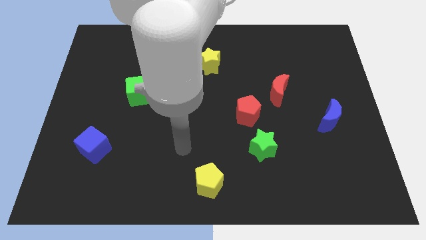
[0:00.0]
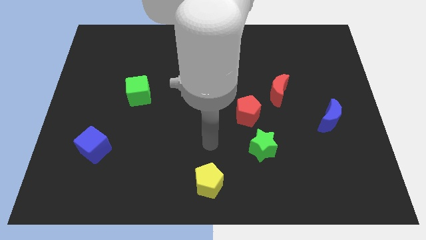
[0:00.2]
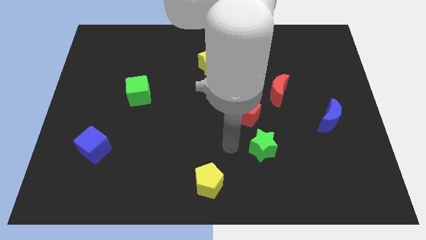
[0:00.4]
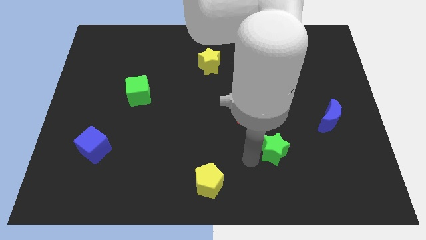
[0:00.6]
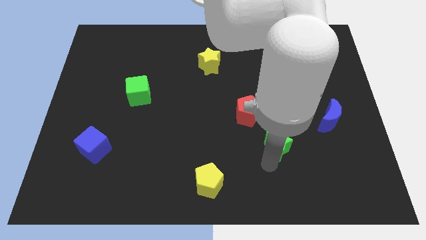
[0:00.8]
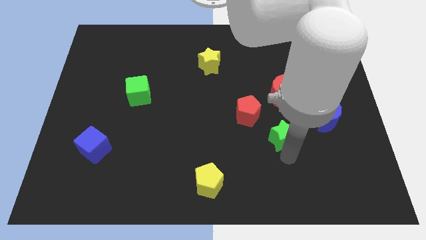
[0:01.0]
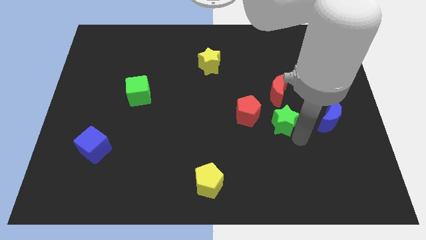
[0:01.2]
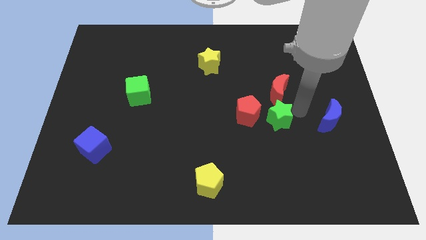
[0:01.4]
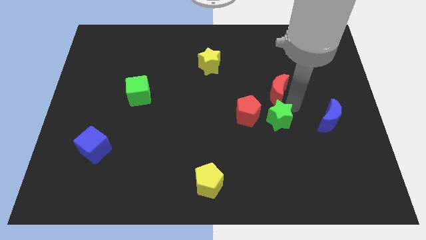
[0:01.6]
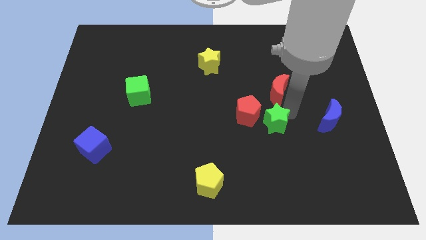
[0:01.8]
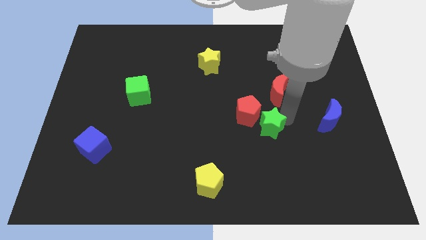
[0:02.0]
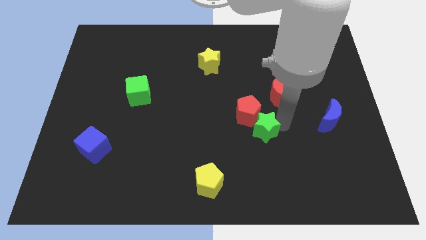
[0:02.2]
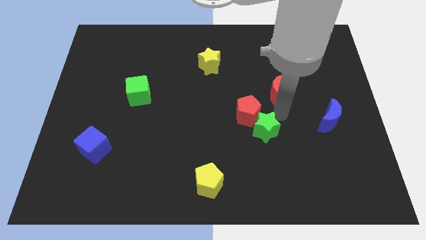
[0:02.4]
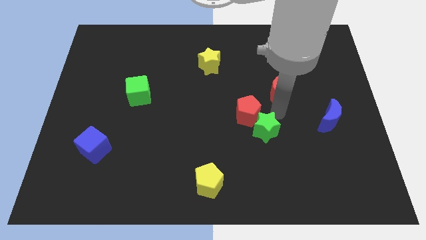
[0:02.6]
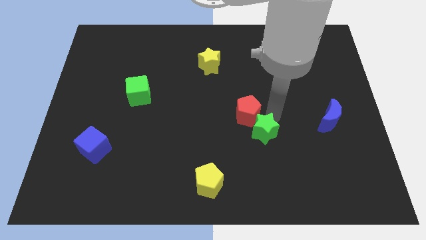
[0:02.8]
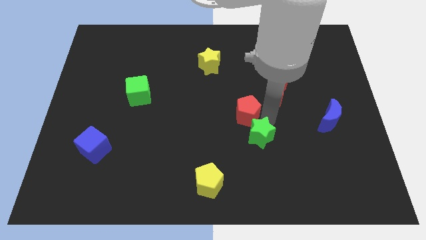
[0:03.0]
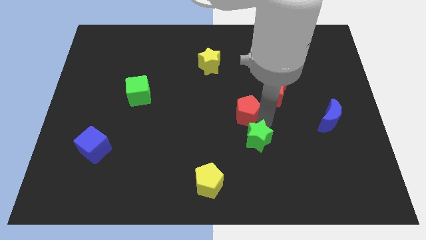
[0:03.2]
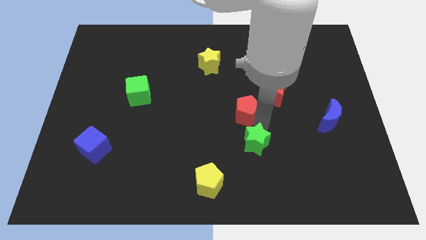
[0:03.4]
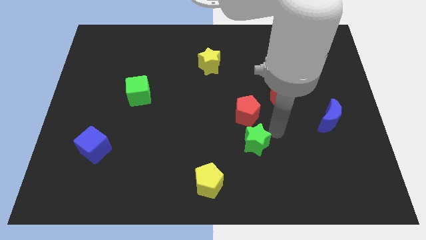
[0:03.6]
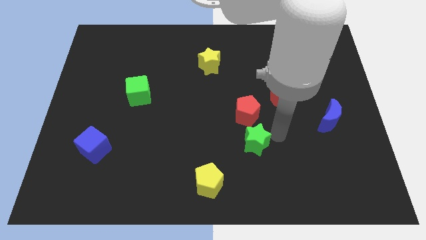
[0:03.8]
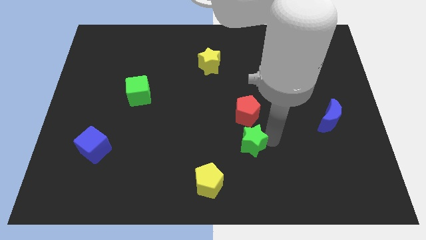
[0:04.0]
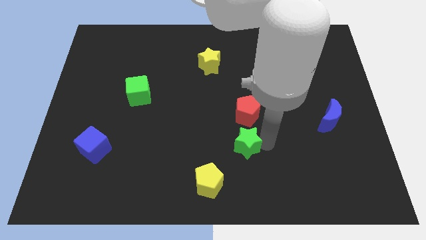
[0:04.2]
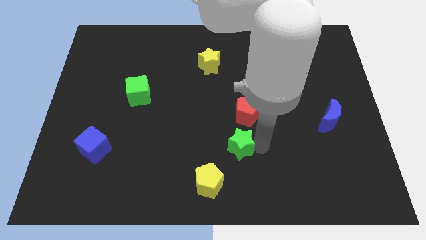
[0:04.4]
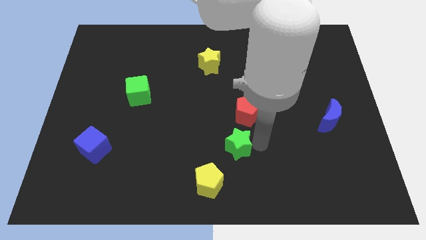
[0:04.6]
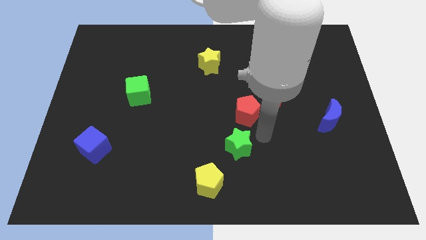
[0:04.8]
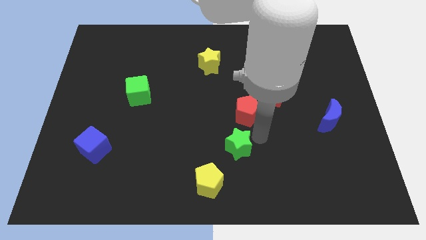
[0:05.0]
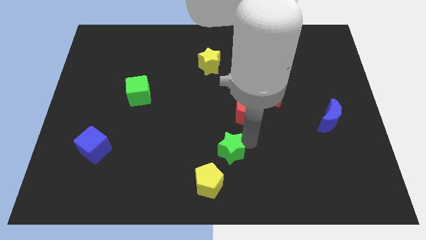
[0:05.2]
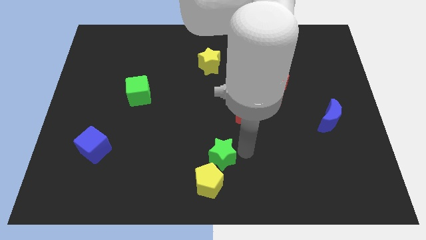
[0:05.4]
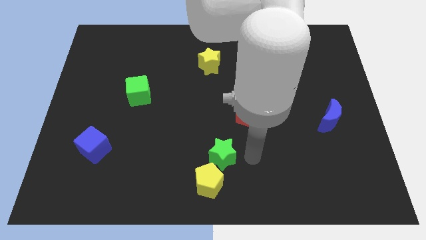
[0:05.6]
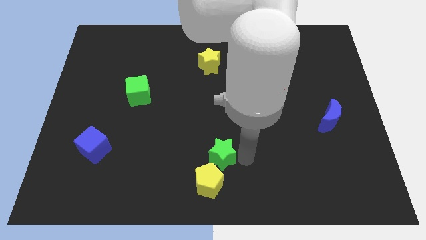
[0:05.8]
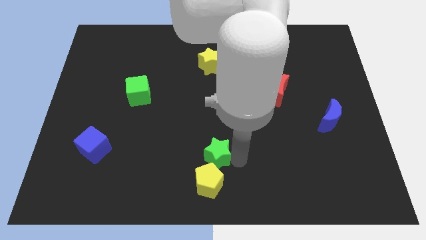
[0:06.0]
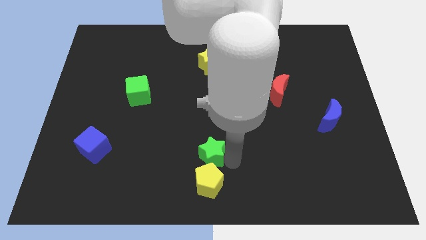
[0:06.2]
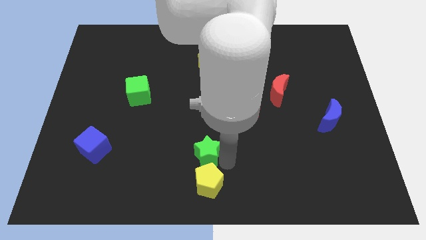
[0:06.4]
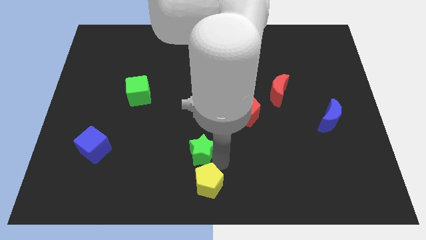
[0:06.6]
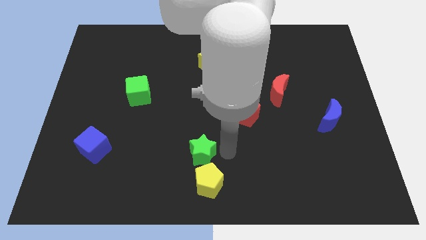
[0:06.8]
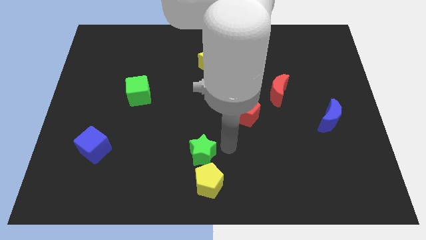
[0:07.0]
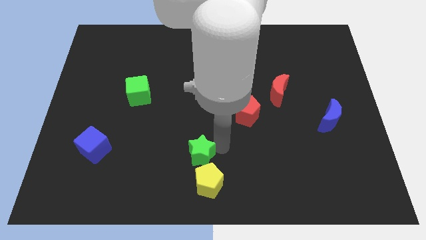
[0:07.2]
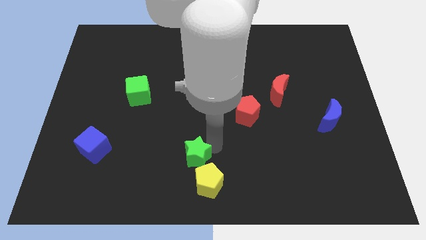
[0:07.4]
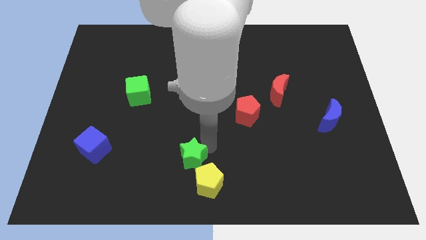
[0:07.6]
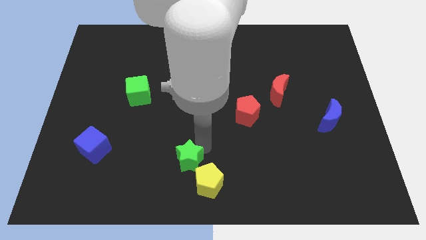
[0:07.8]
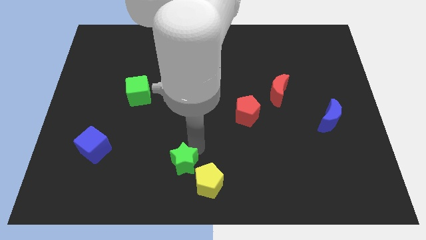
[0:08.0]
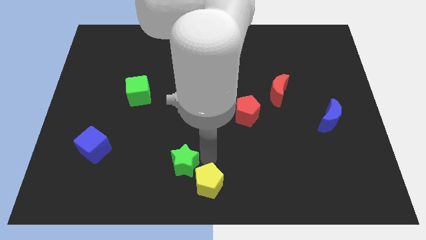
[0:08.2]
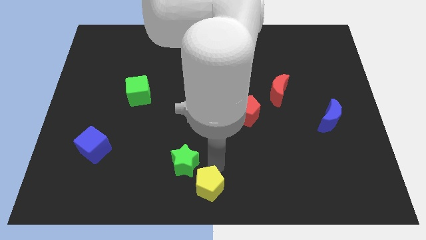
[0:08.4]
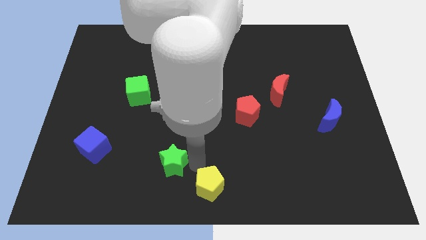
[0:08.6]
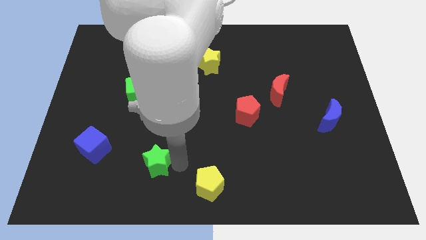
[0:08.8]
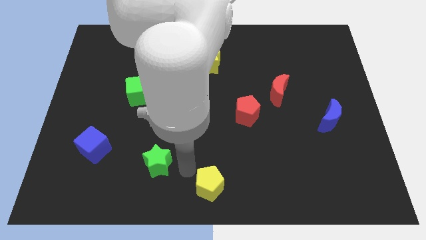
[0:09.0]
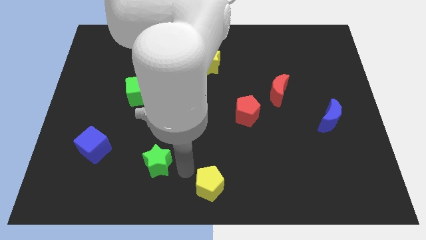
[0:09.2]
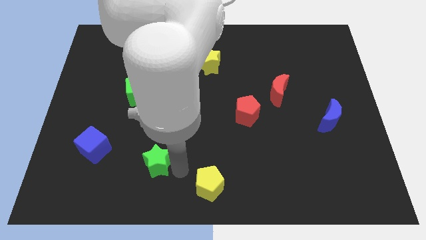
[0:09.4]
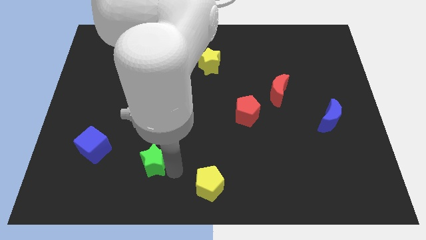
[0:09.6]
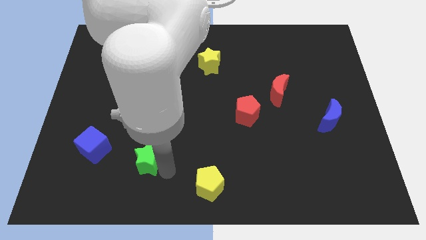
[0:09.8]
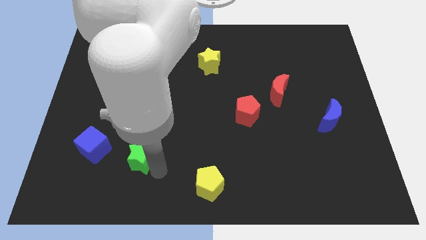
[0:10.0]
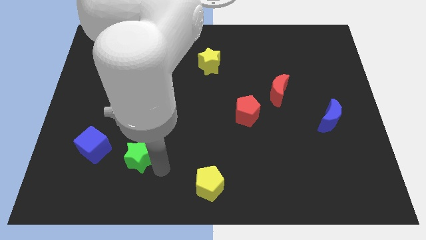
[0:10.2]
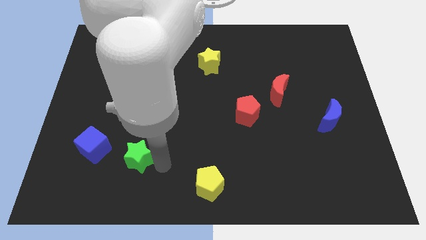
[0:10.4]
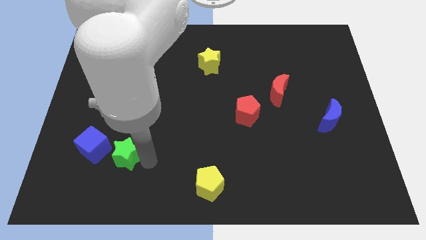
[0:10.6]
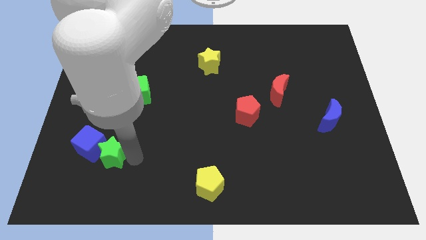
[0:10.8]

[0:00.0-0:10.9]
push the green star towards the blue cube

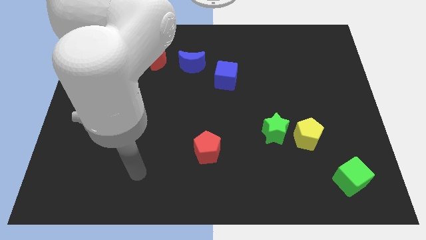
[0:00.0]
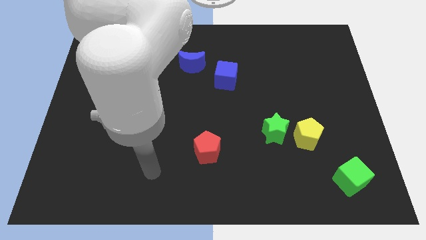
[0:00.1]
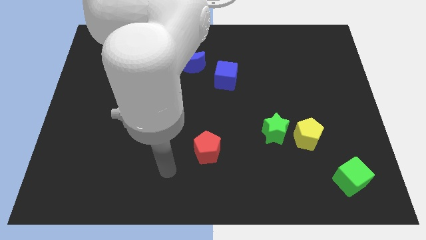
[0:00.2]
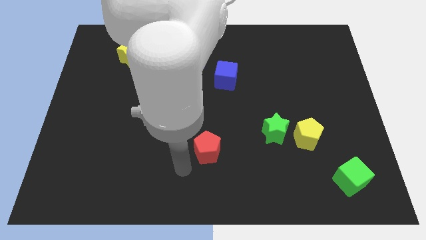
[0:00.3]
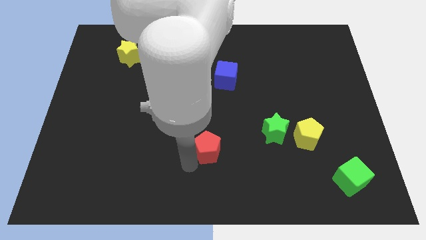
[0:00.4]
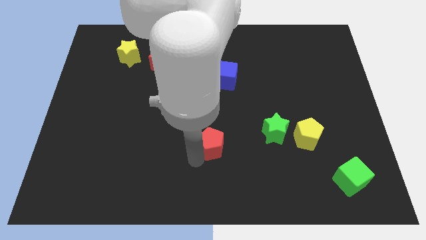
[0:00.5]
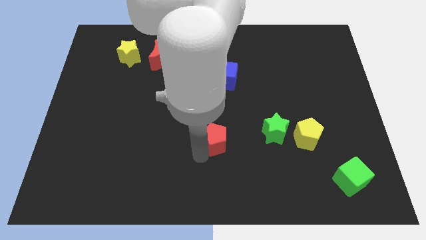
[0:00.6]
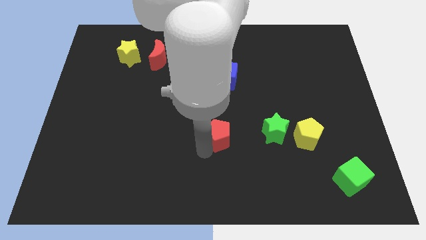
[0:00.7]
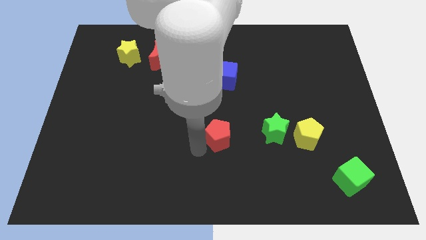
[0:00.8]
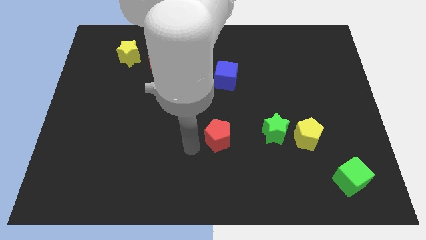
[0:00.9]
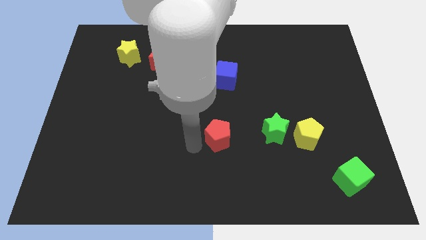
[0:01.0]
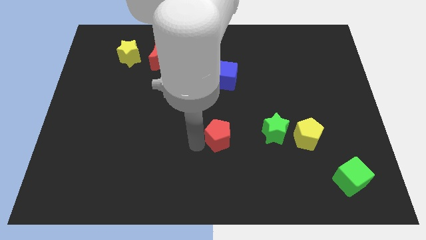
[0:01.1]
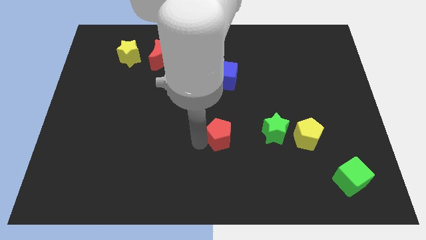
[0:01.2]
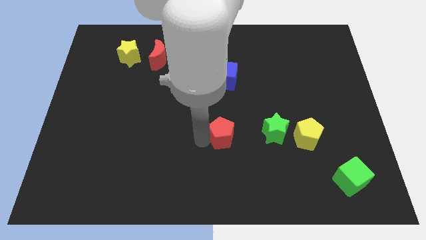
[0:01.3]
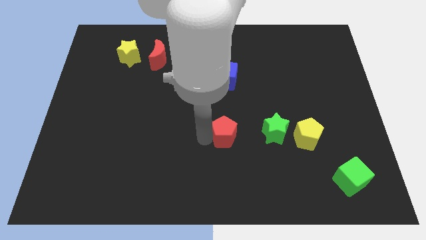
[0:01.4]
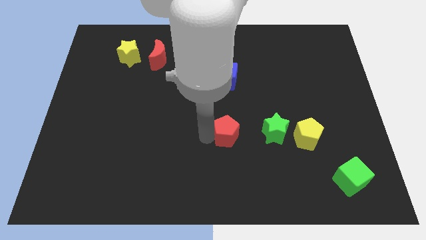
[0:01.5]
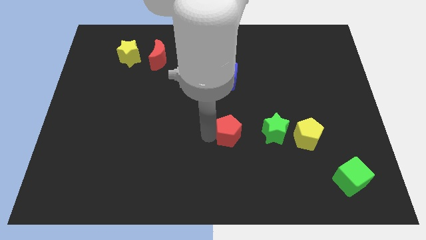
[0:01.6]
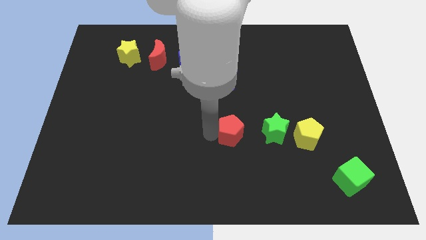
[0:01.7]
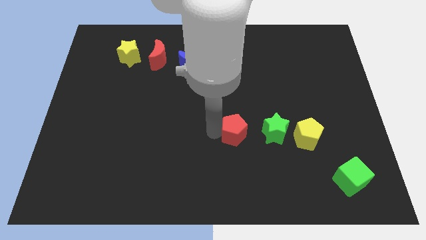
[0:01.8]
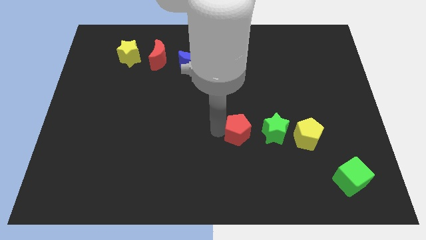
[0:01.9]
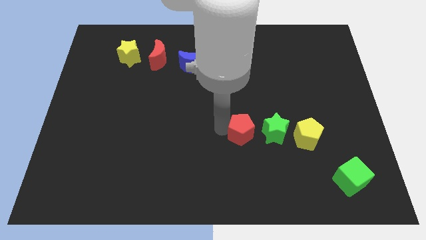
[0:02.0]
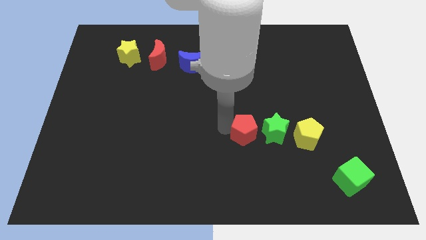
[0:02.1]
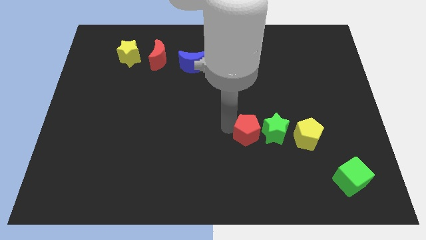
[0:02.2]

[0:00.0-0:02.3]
put the red pentagon next to the green star
